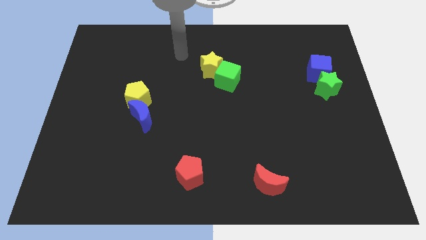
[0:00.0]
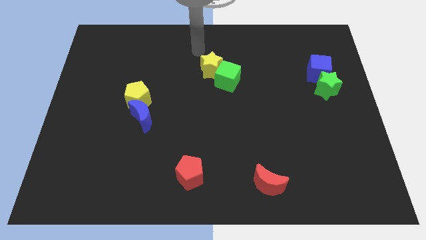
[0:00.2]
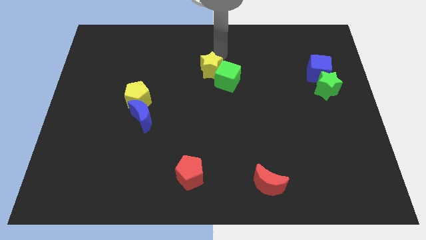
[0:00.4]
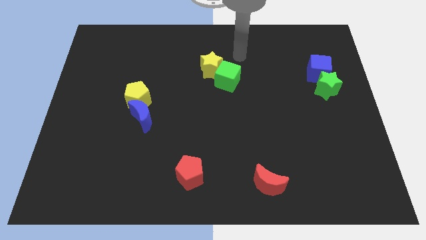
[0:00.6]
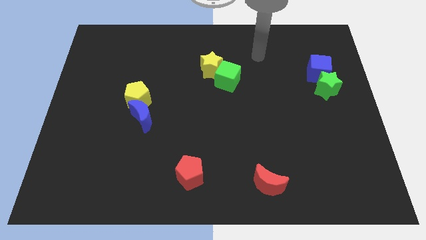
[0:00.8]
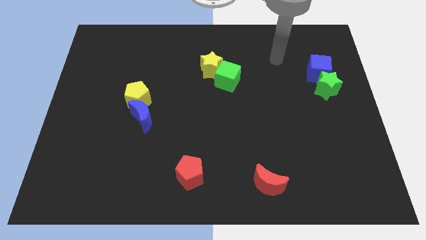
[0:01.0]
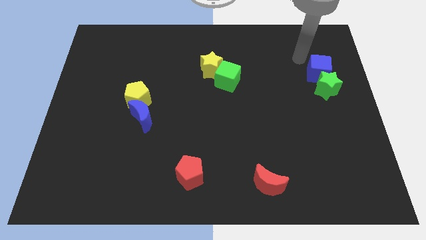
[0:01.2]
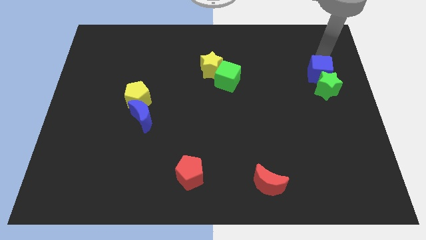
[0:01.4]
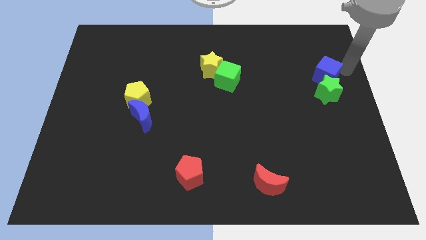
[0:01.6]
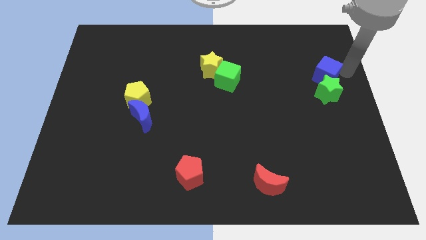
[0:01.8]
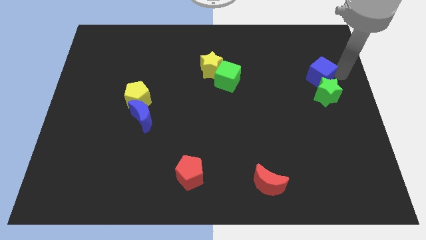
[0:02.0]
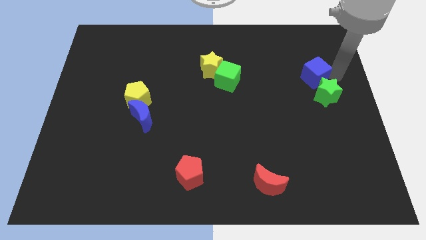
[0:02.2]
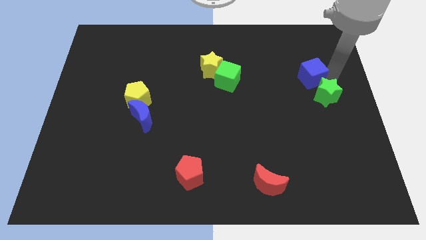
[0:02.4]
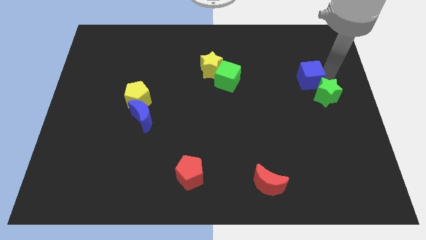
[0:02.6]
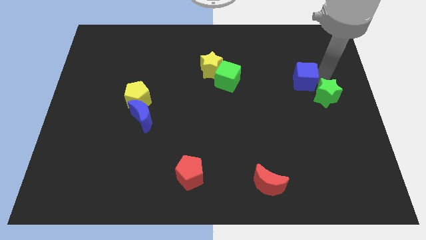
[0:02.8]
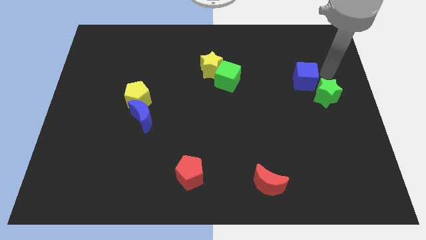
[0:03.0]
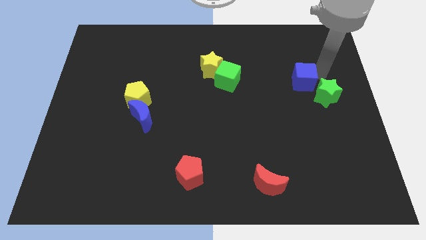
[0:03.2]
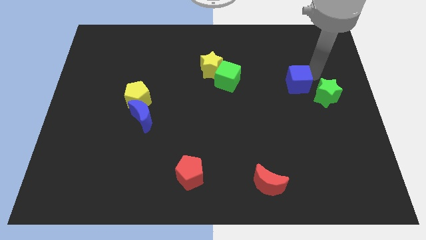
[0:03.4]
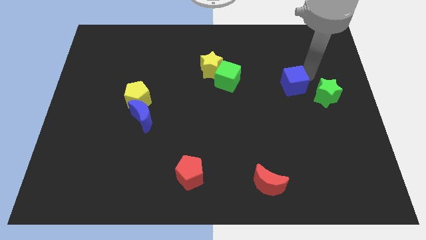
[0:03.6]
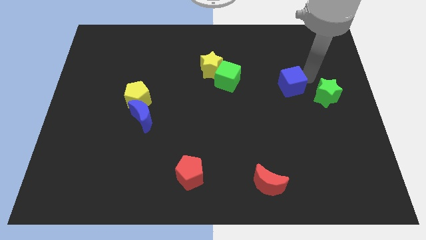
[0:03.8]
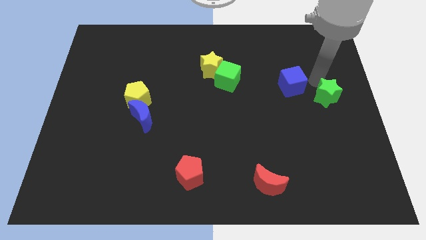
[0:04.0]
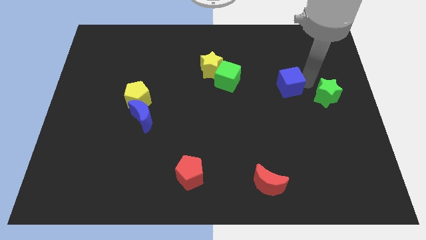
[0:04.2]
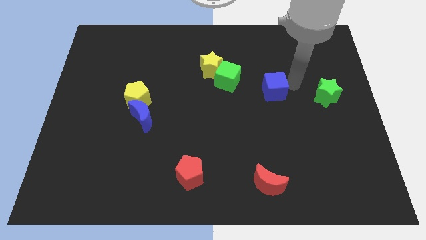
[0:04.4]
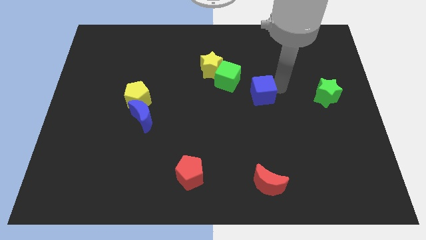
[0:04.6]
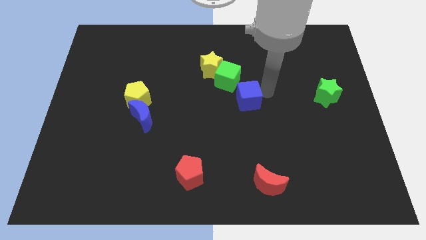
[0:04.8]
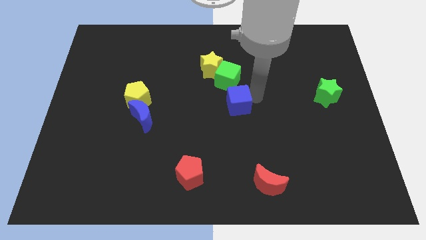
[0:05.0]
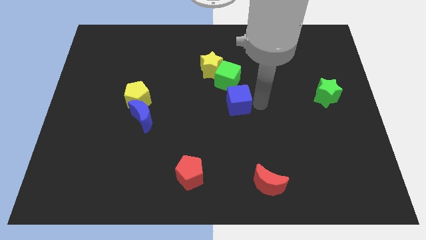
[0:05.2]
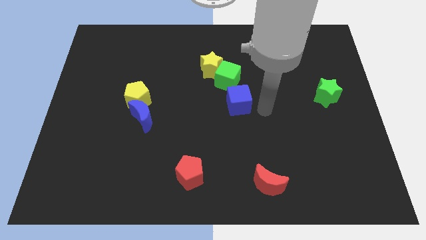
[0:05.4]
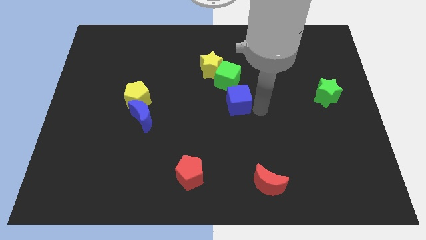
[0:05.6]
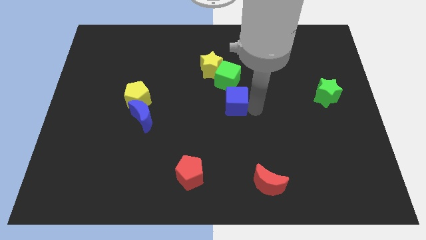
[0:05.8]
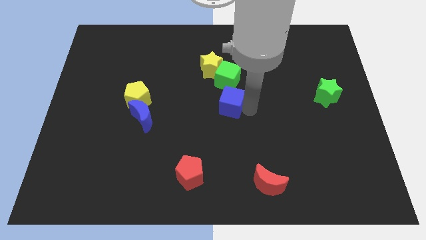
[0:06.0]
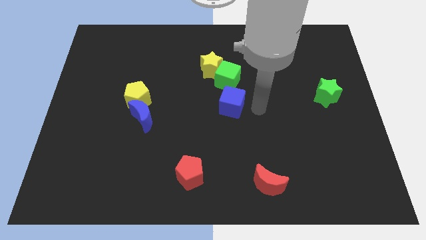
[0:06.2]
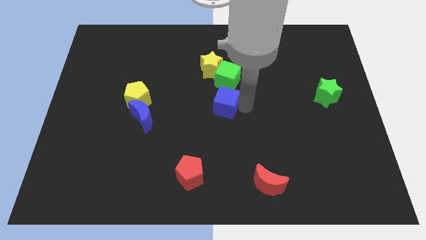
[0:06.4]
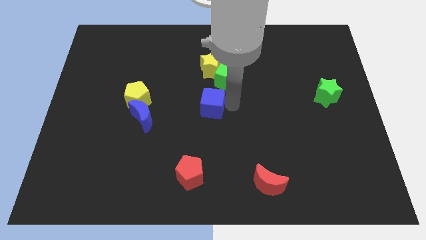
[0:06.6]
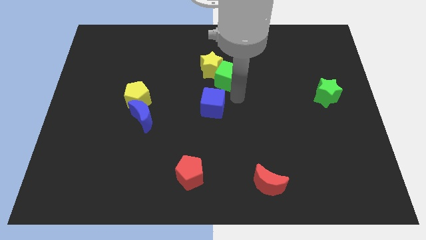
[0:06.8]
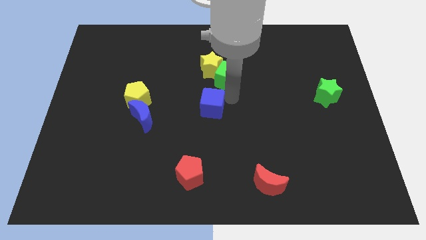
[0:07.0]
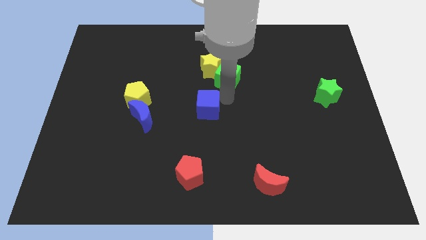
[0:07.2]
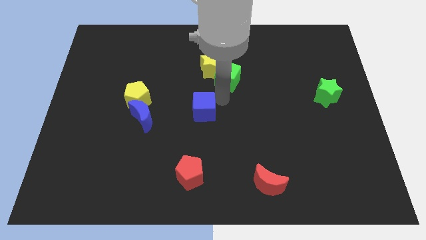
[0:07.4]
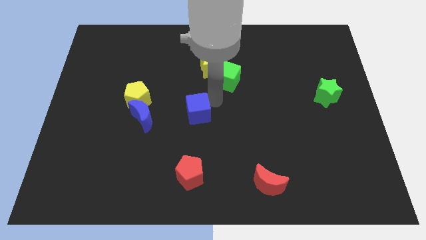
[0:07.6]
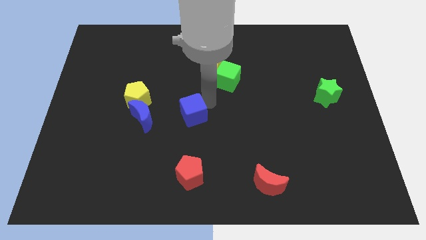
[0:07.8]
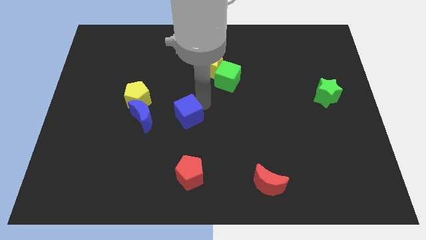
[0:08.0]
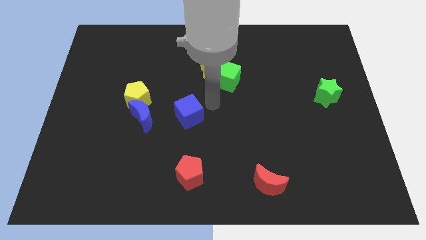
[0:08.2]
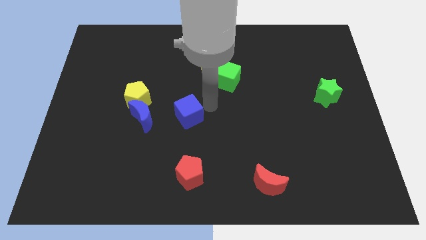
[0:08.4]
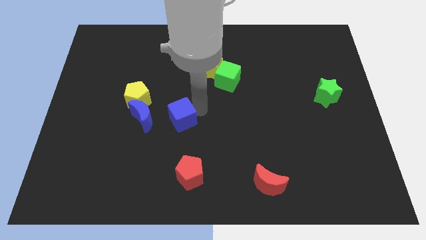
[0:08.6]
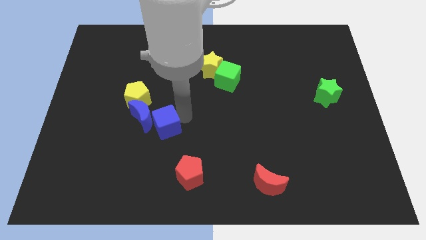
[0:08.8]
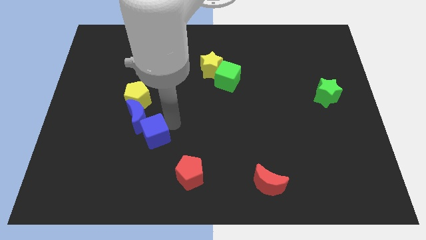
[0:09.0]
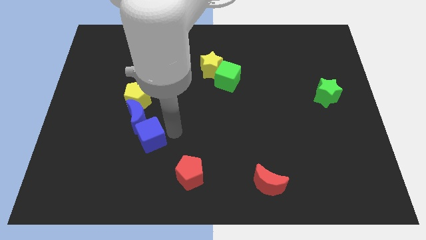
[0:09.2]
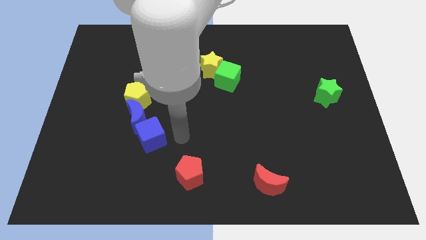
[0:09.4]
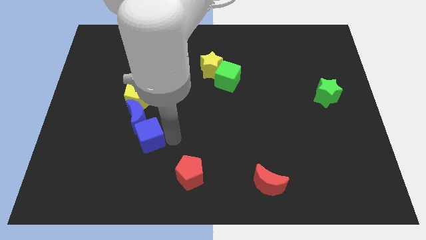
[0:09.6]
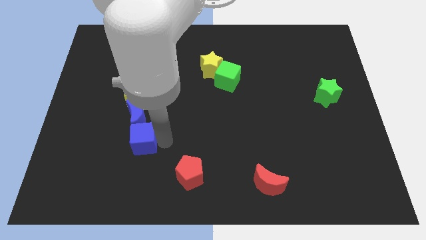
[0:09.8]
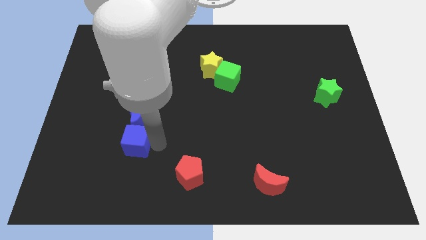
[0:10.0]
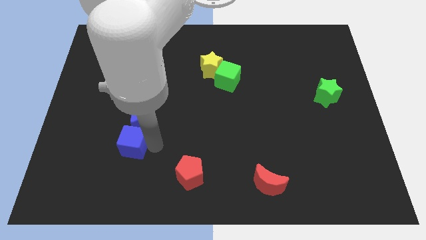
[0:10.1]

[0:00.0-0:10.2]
move the blue cube diagonally down and to the left of the blue moon

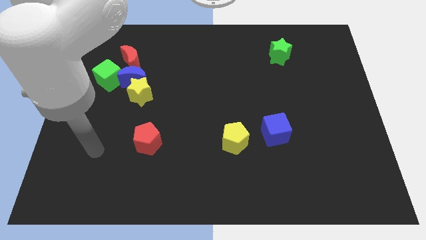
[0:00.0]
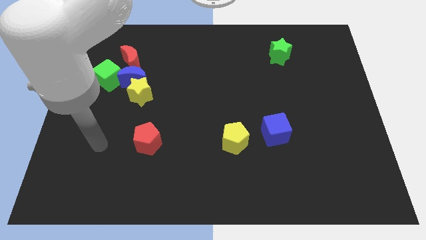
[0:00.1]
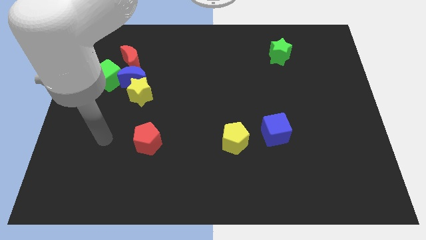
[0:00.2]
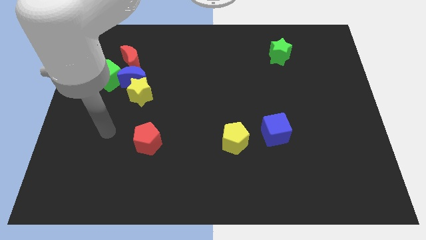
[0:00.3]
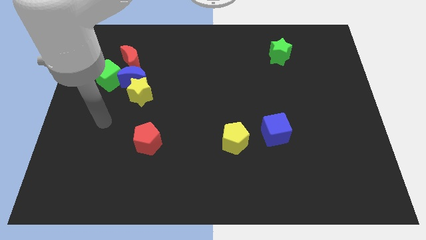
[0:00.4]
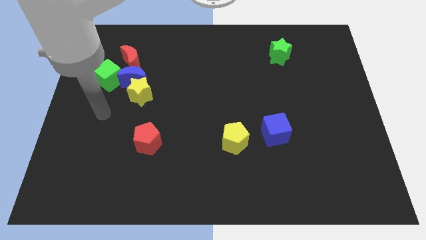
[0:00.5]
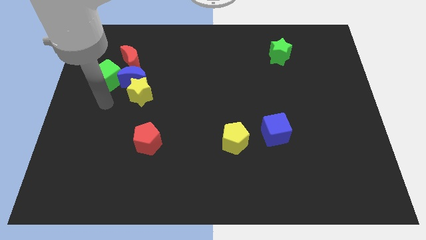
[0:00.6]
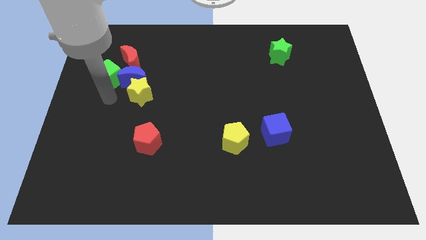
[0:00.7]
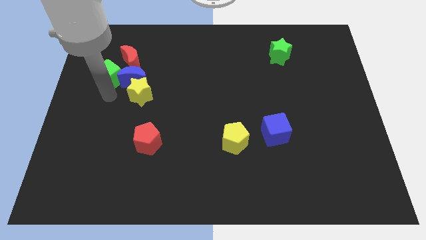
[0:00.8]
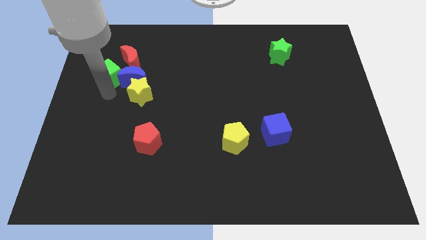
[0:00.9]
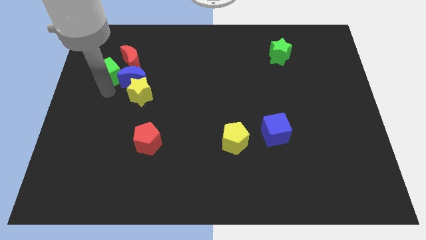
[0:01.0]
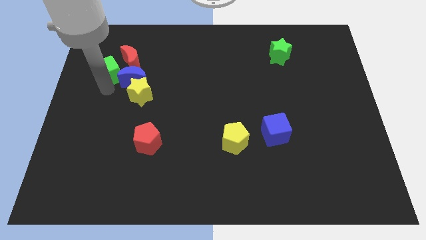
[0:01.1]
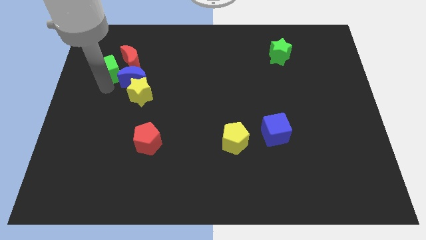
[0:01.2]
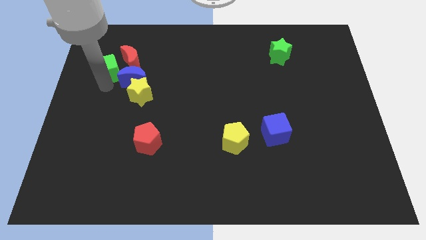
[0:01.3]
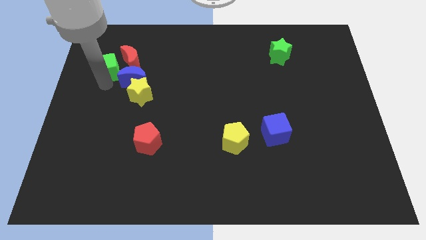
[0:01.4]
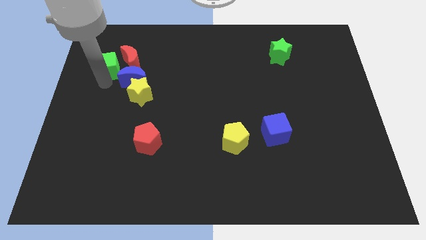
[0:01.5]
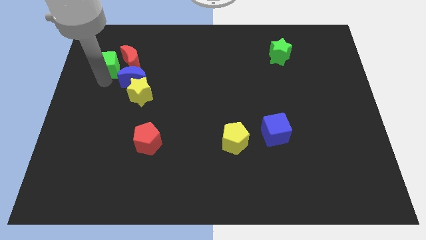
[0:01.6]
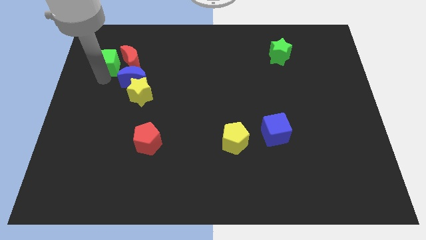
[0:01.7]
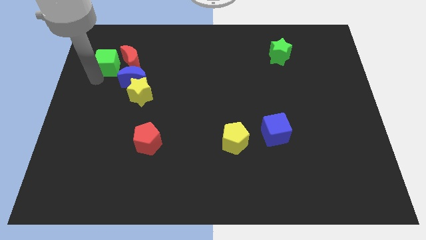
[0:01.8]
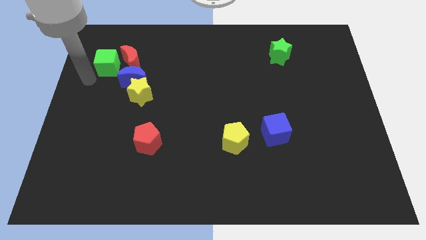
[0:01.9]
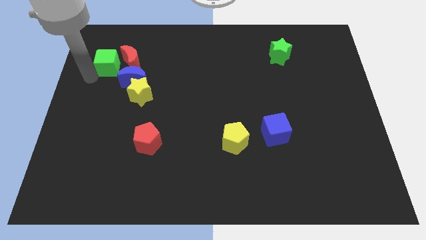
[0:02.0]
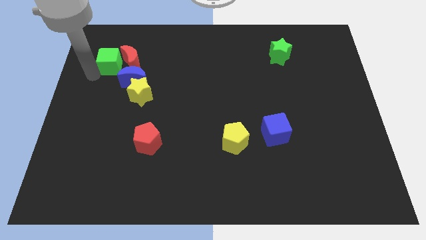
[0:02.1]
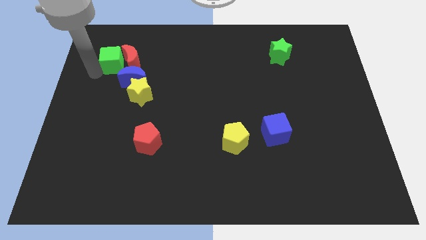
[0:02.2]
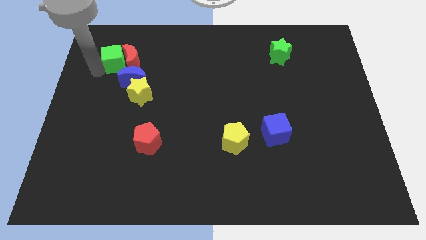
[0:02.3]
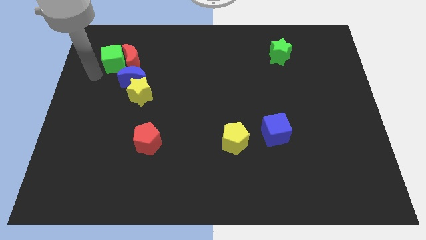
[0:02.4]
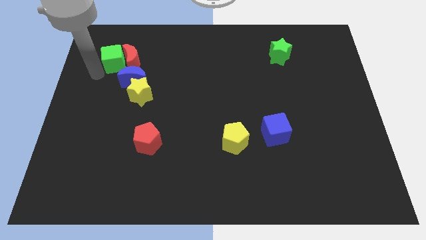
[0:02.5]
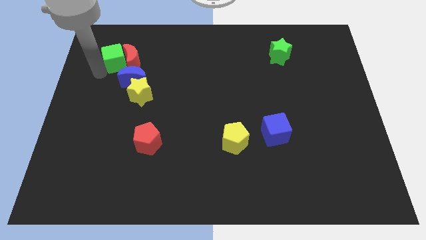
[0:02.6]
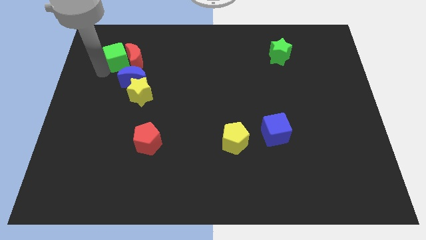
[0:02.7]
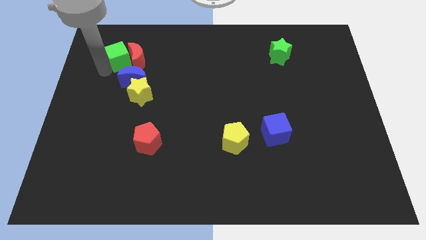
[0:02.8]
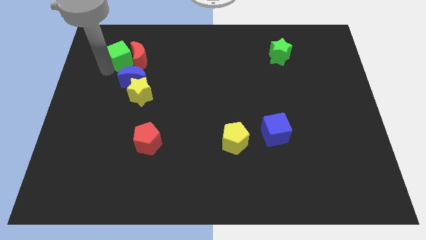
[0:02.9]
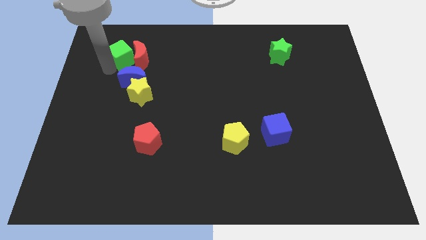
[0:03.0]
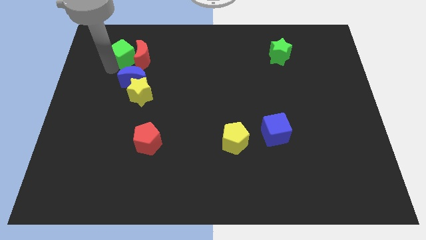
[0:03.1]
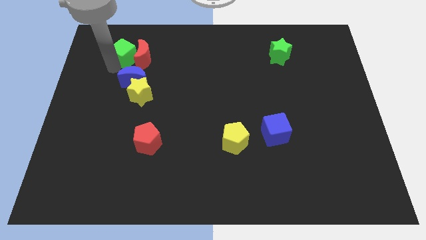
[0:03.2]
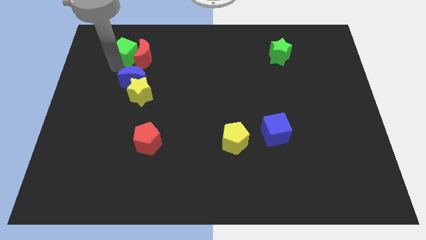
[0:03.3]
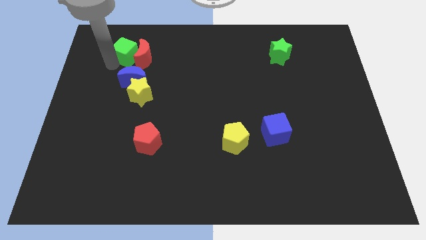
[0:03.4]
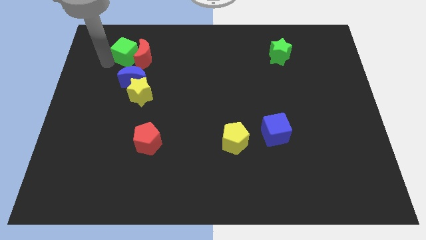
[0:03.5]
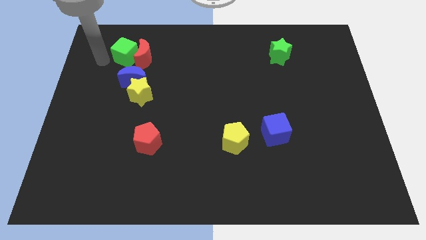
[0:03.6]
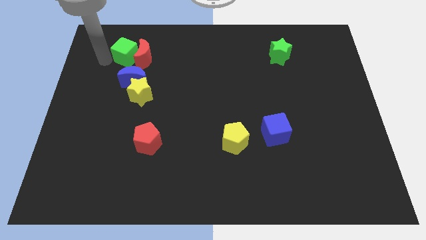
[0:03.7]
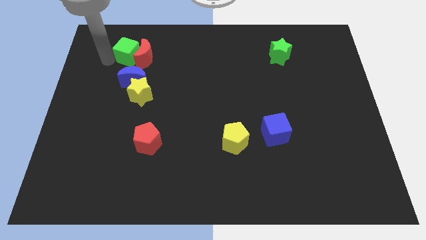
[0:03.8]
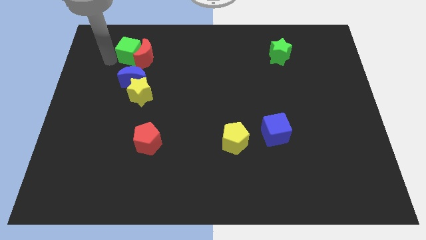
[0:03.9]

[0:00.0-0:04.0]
push the green cube to the top of the yellow star
